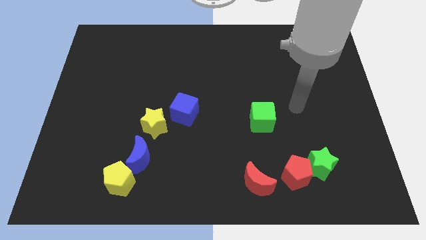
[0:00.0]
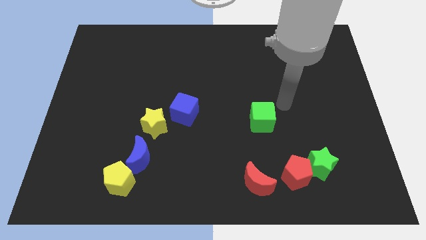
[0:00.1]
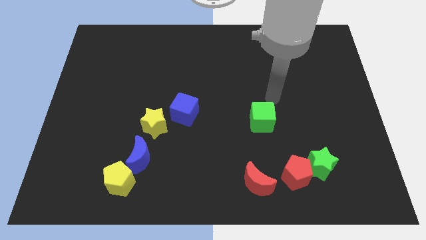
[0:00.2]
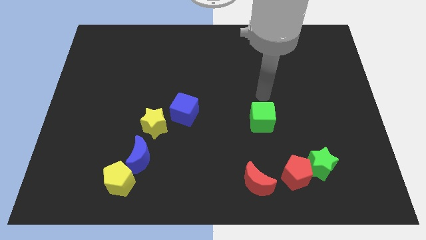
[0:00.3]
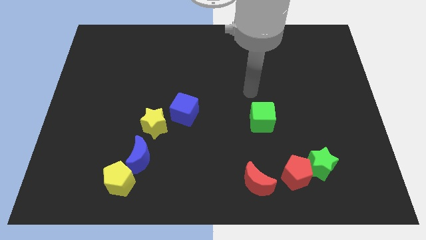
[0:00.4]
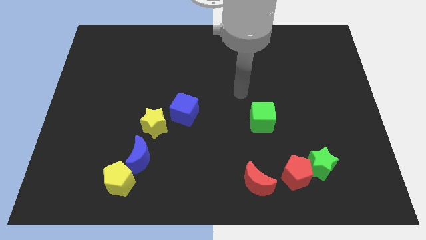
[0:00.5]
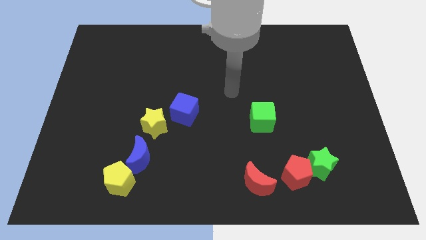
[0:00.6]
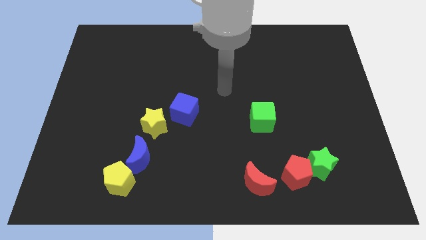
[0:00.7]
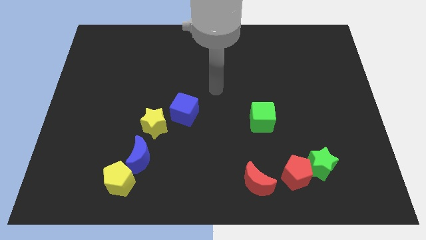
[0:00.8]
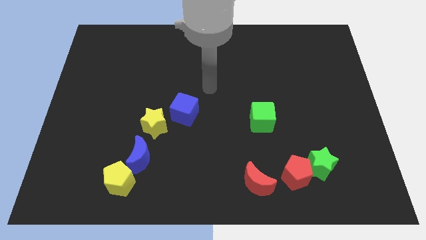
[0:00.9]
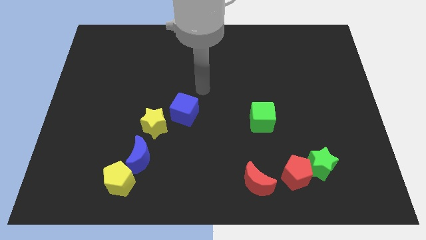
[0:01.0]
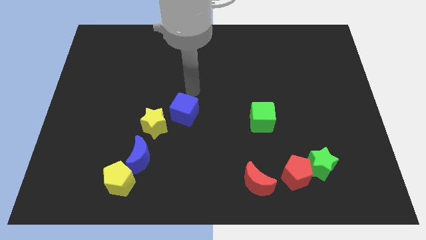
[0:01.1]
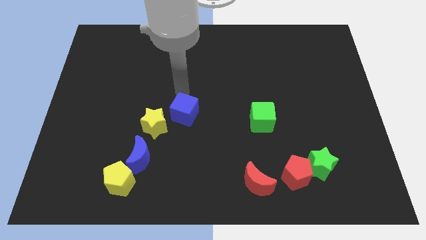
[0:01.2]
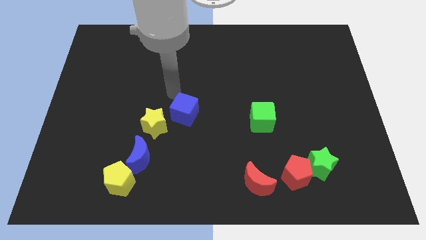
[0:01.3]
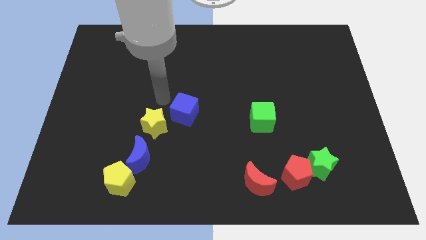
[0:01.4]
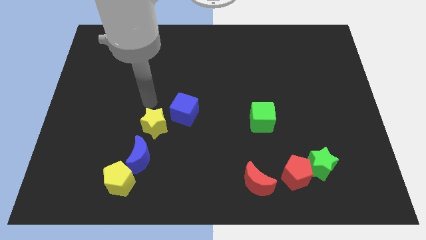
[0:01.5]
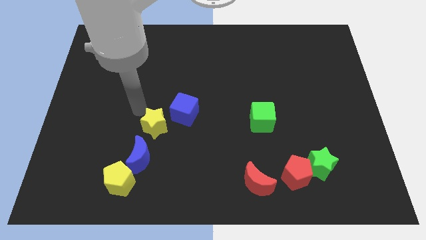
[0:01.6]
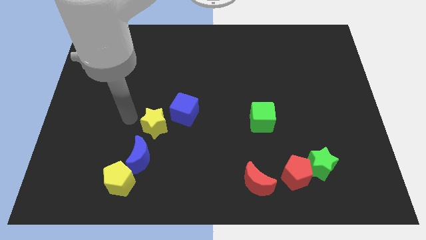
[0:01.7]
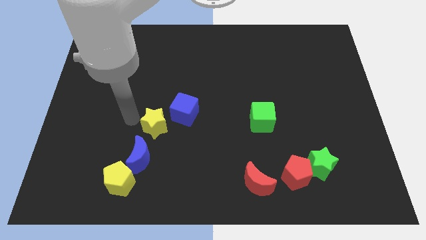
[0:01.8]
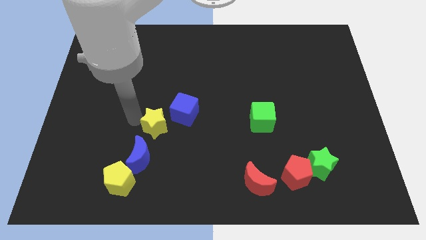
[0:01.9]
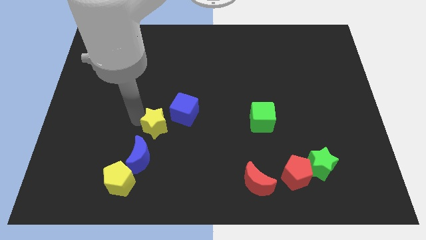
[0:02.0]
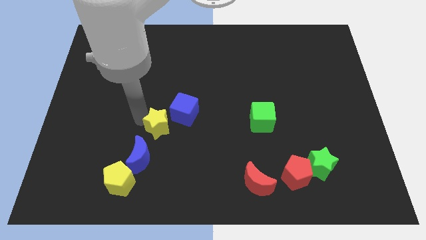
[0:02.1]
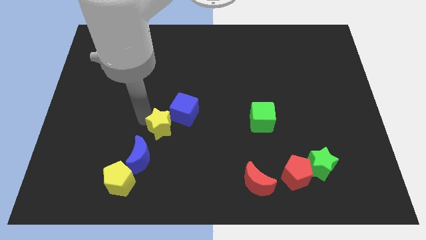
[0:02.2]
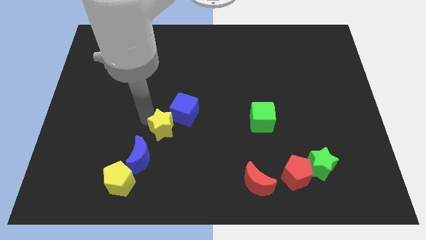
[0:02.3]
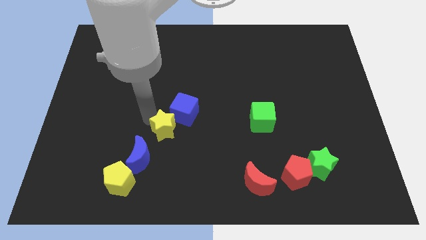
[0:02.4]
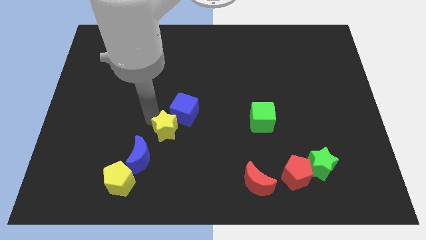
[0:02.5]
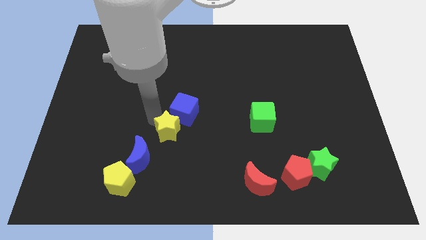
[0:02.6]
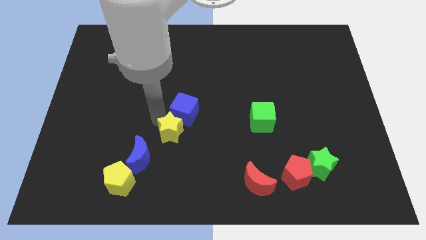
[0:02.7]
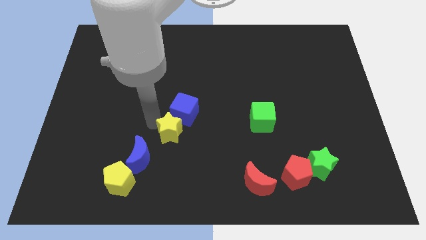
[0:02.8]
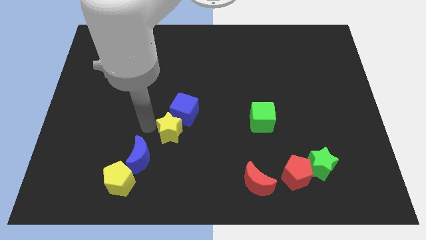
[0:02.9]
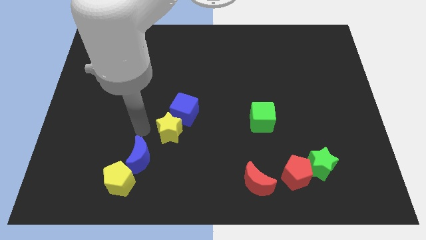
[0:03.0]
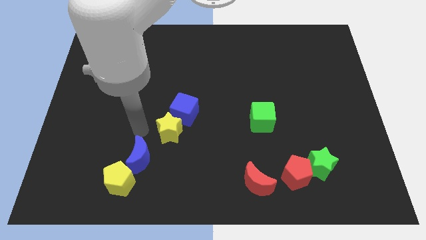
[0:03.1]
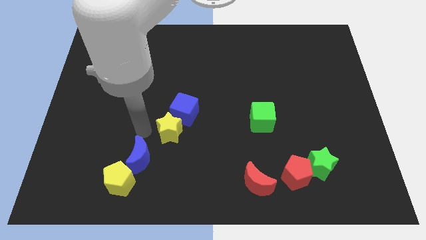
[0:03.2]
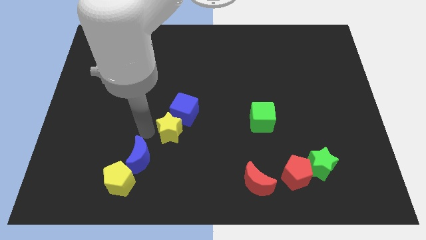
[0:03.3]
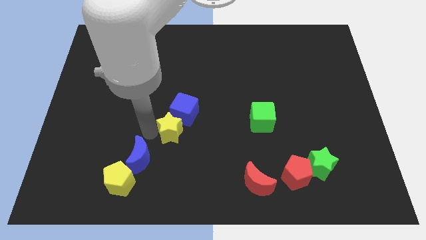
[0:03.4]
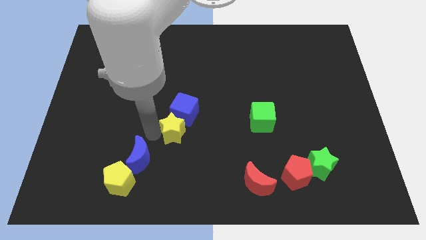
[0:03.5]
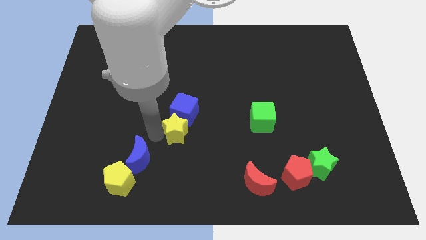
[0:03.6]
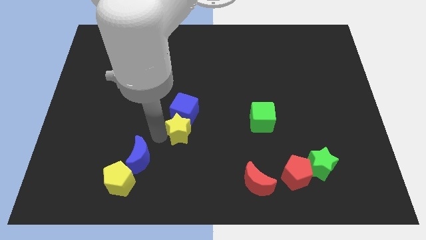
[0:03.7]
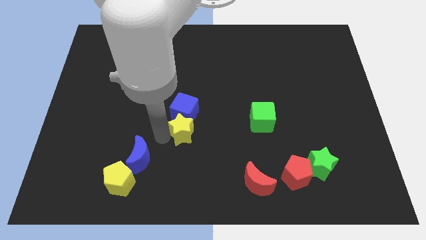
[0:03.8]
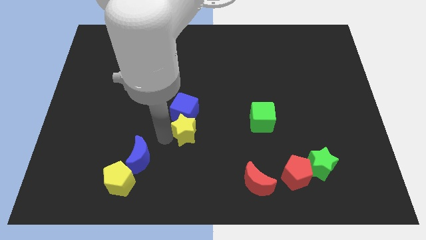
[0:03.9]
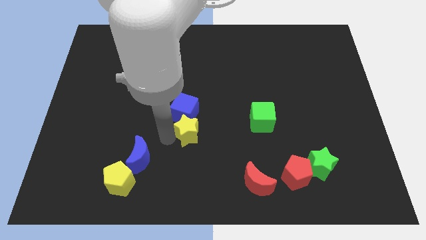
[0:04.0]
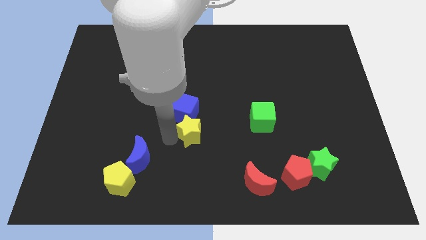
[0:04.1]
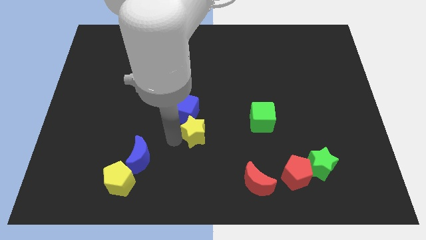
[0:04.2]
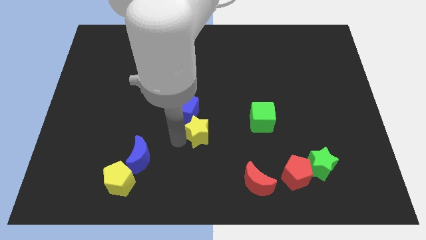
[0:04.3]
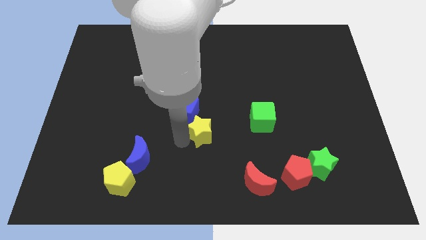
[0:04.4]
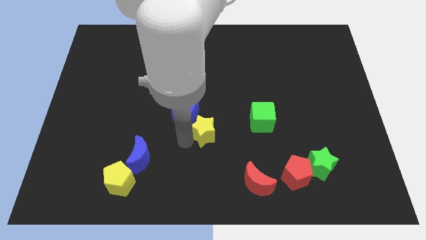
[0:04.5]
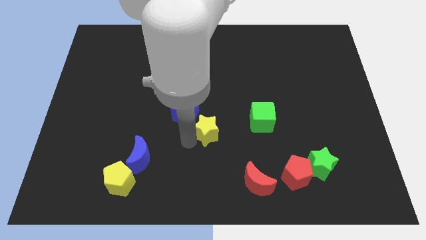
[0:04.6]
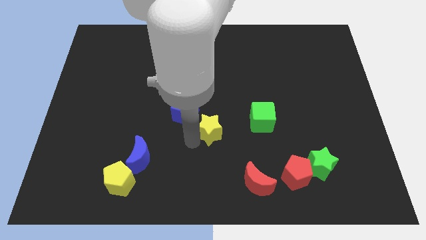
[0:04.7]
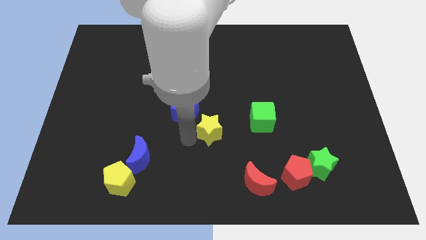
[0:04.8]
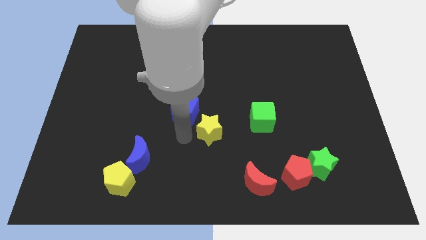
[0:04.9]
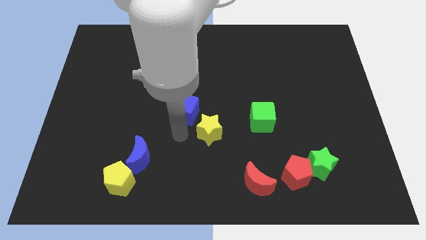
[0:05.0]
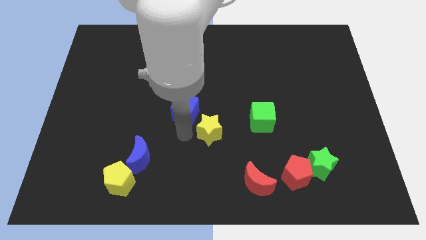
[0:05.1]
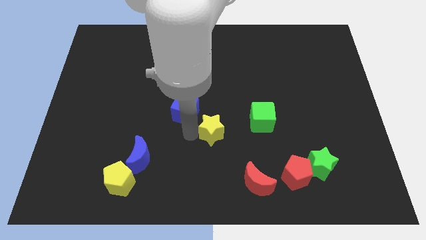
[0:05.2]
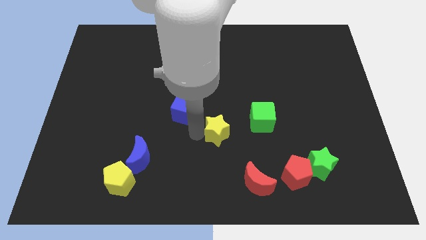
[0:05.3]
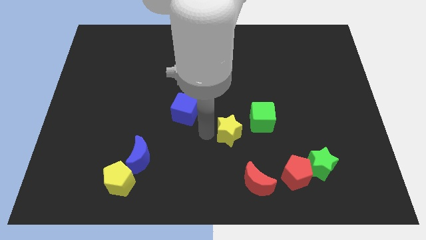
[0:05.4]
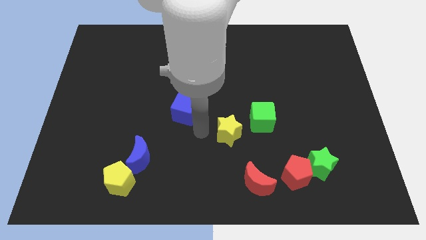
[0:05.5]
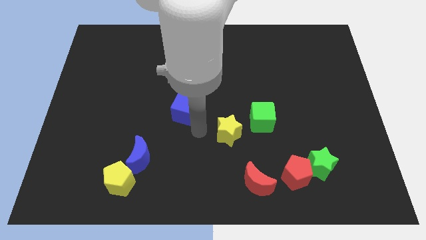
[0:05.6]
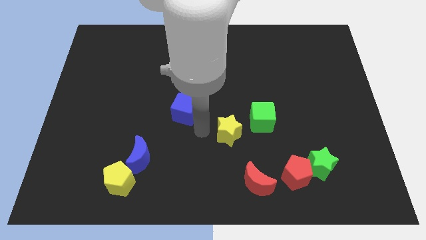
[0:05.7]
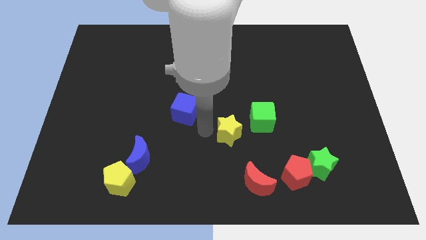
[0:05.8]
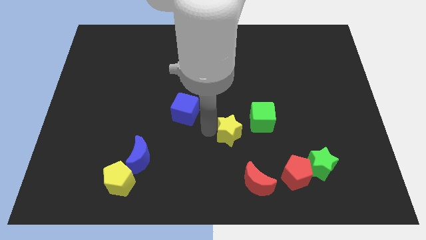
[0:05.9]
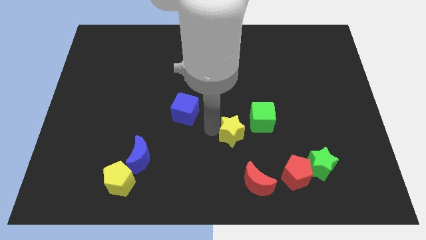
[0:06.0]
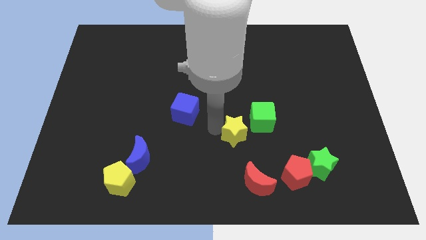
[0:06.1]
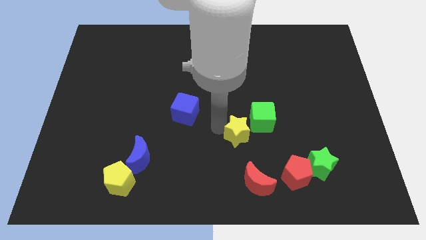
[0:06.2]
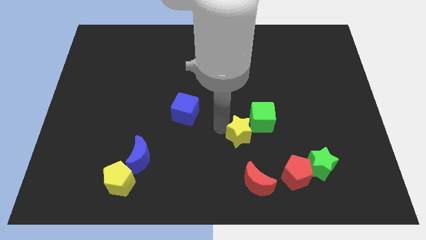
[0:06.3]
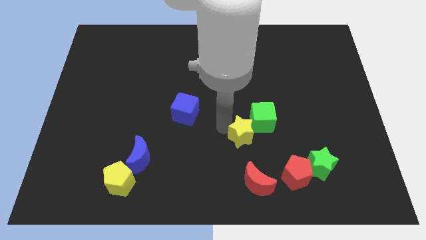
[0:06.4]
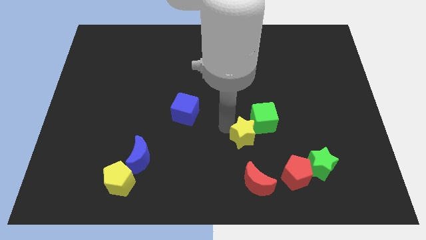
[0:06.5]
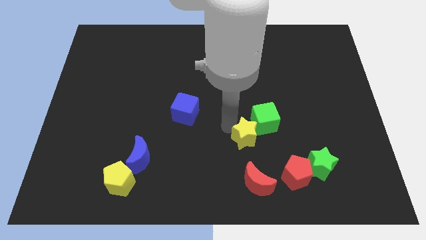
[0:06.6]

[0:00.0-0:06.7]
slide the yellow star right

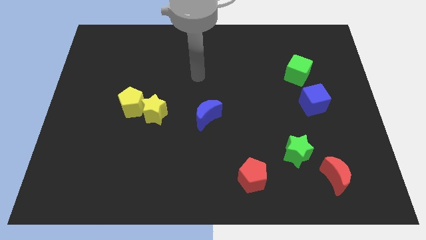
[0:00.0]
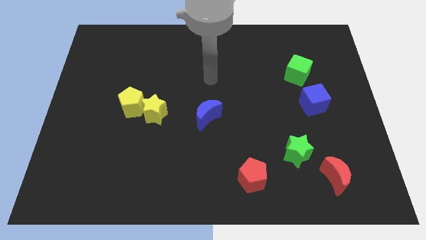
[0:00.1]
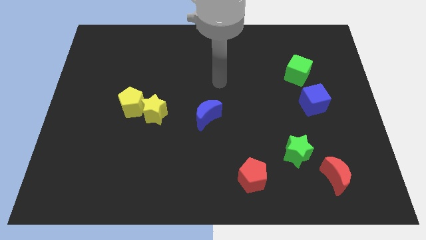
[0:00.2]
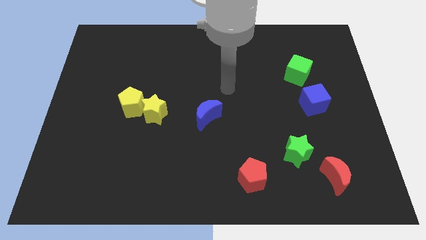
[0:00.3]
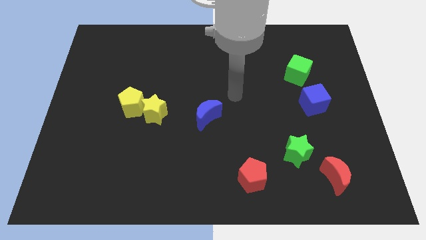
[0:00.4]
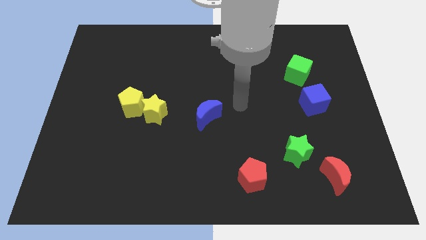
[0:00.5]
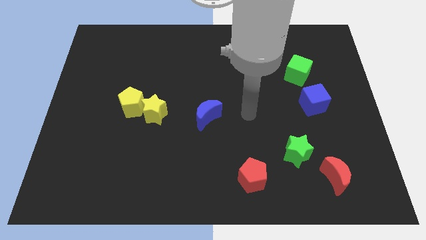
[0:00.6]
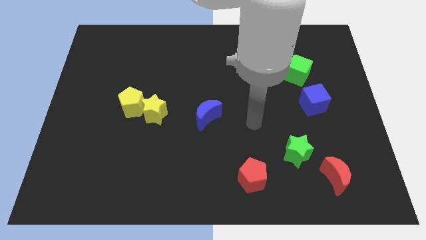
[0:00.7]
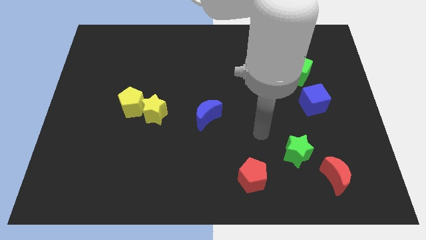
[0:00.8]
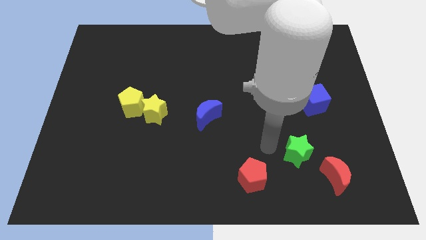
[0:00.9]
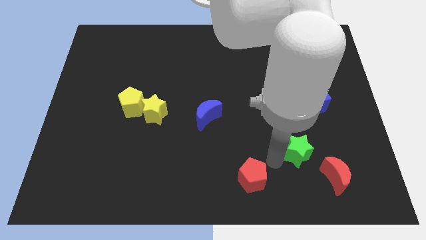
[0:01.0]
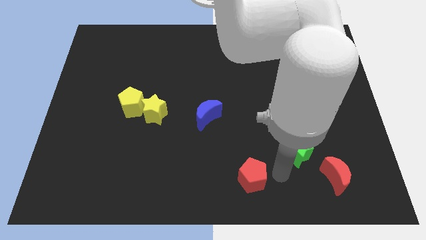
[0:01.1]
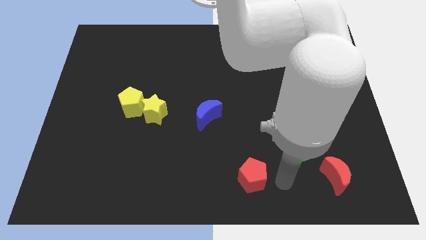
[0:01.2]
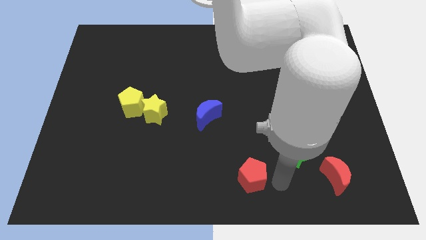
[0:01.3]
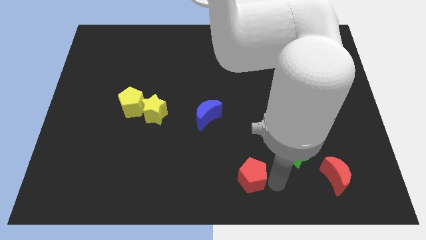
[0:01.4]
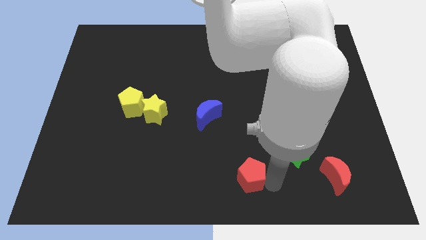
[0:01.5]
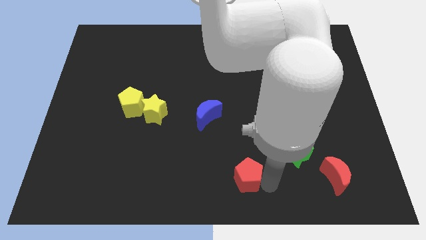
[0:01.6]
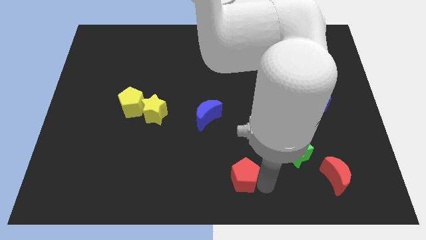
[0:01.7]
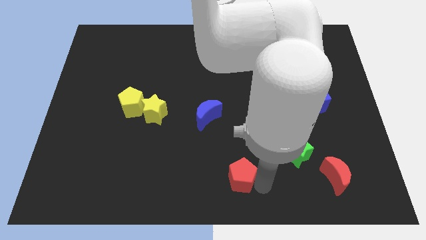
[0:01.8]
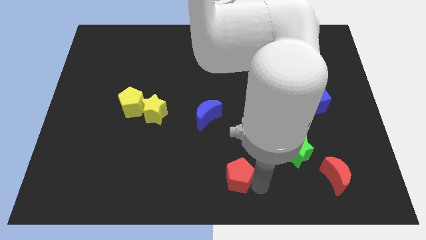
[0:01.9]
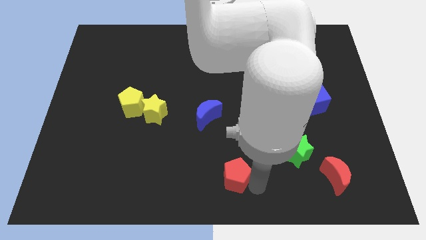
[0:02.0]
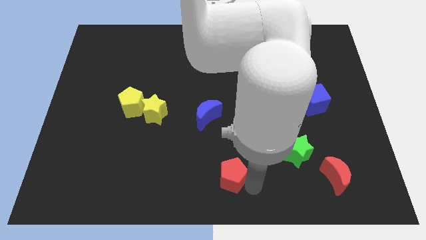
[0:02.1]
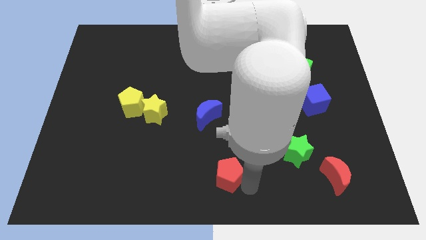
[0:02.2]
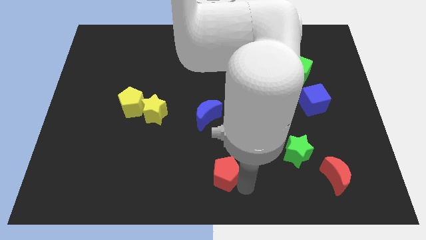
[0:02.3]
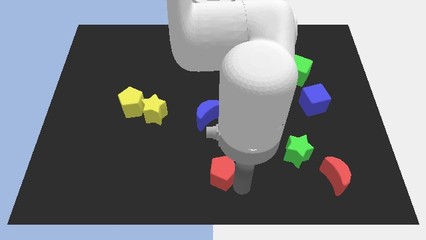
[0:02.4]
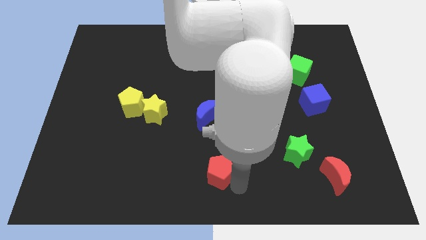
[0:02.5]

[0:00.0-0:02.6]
push the red pentagon left a little bit
